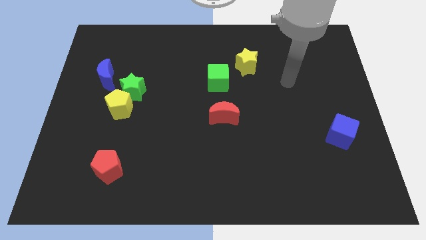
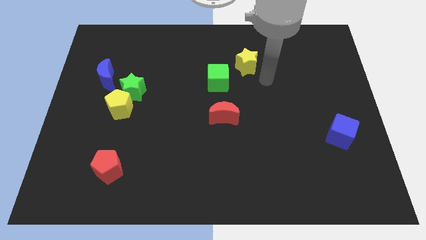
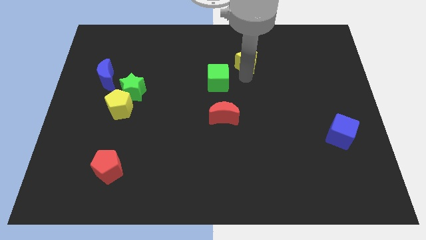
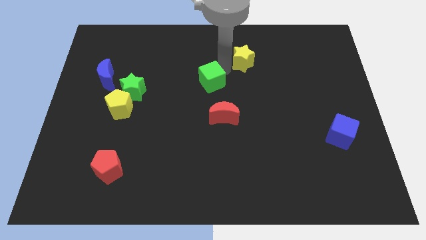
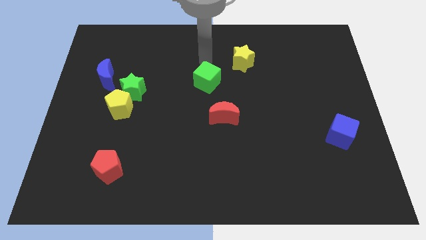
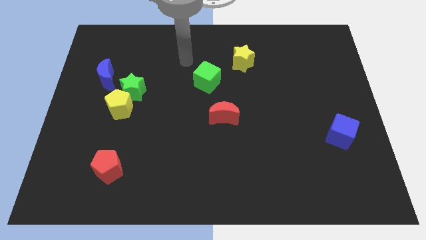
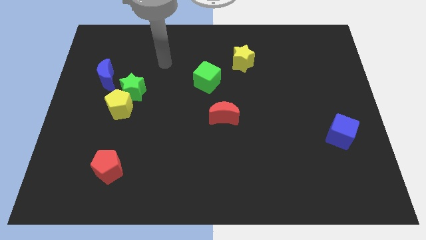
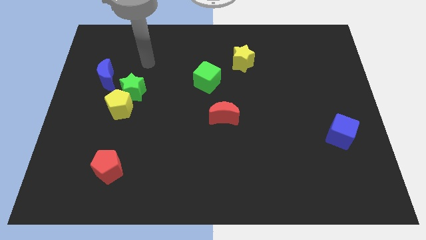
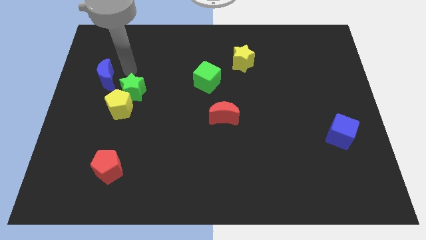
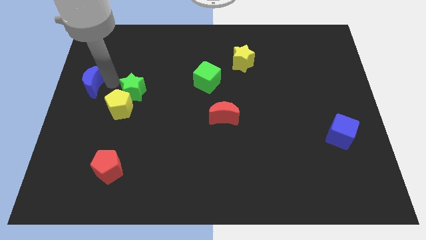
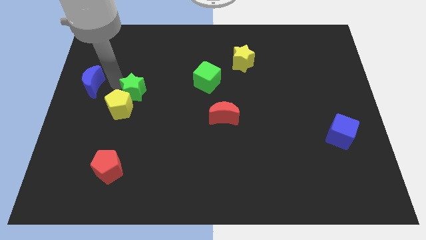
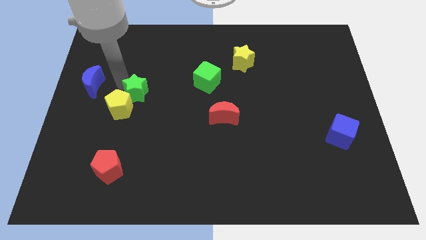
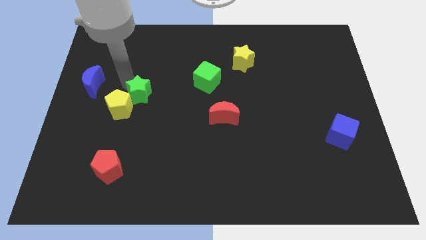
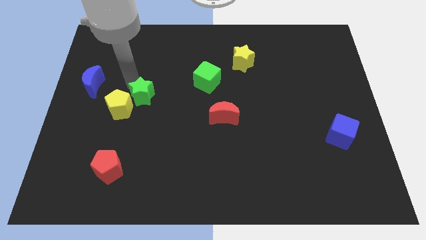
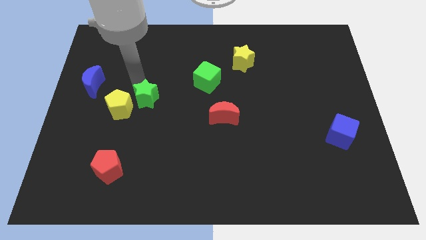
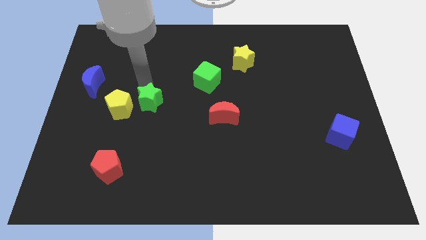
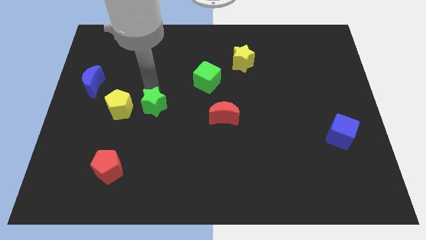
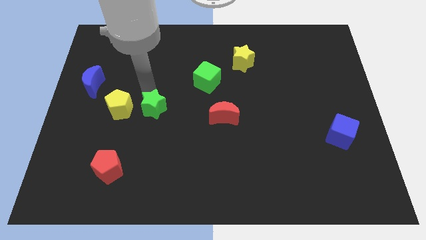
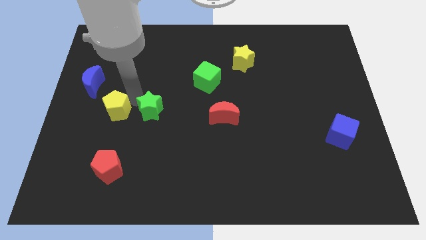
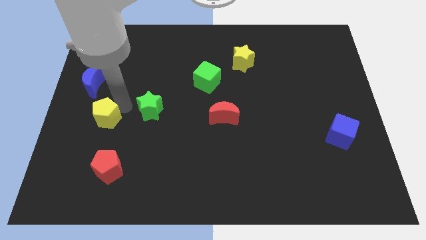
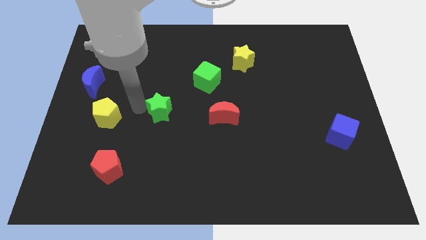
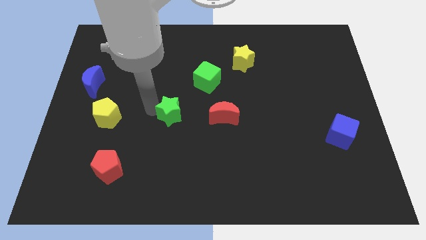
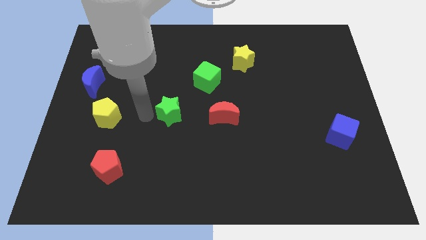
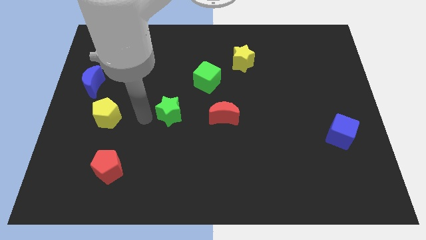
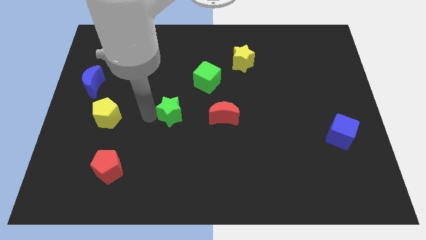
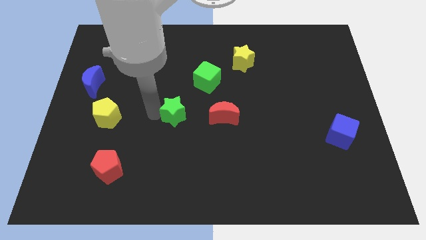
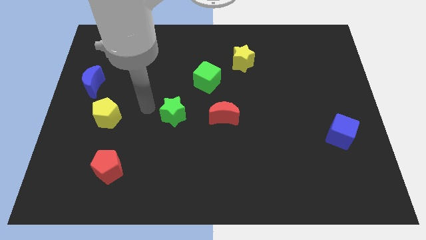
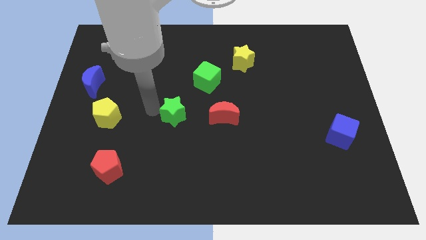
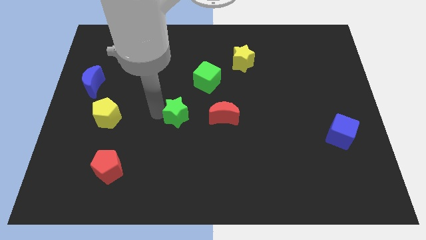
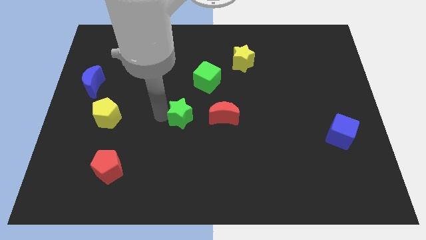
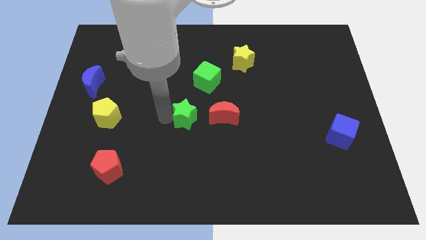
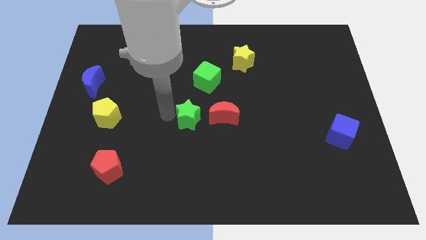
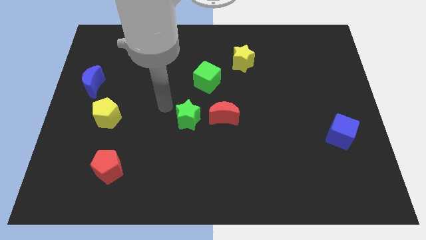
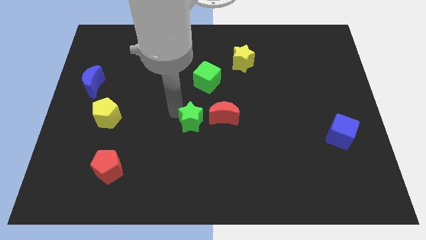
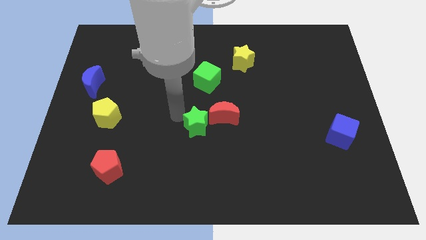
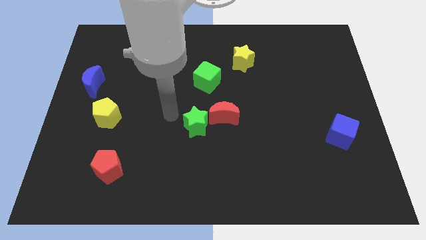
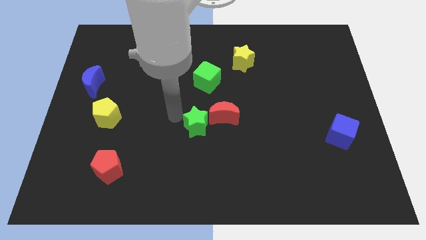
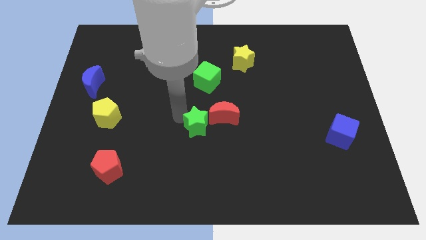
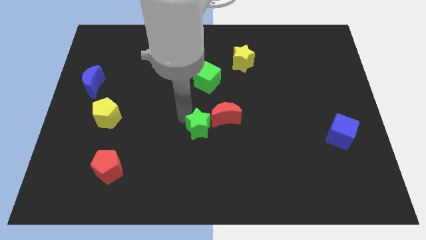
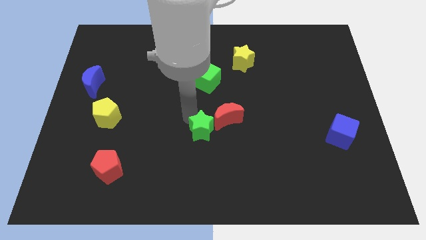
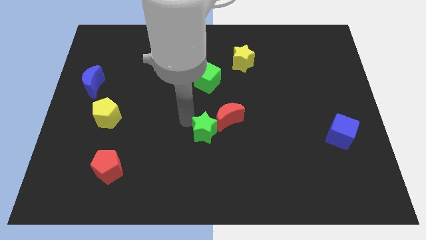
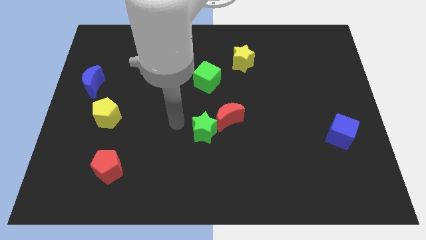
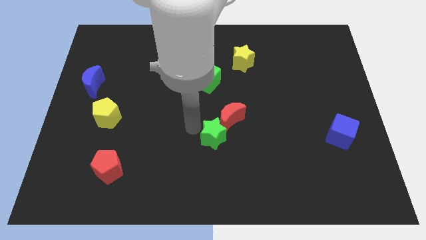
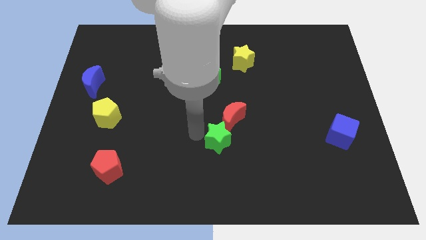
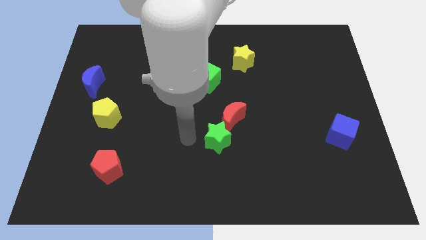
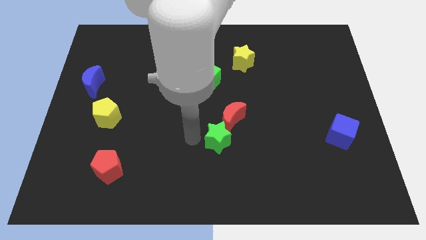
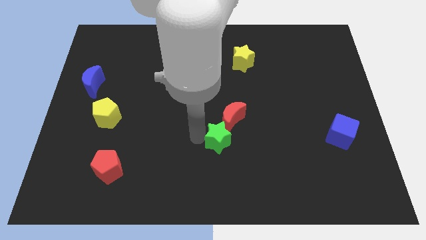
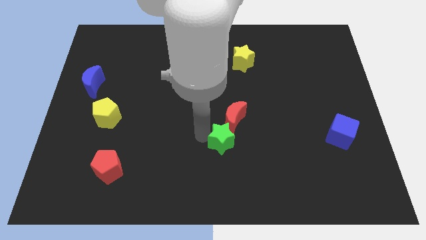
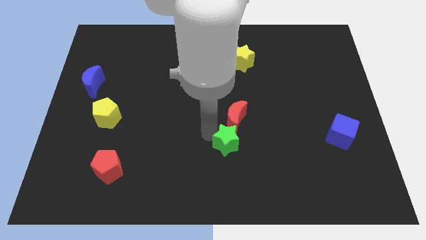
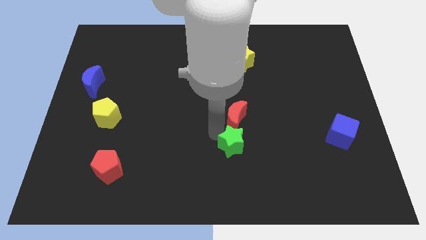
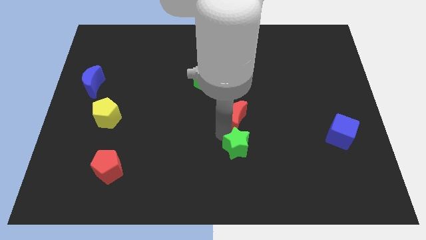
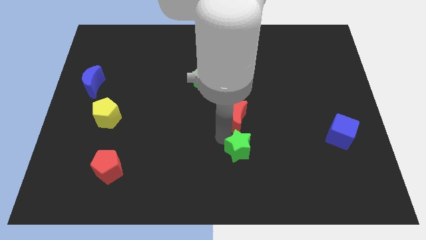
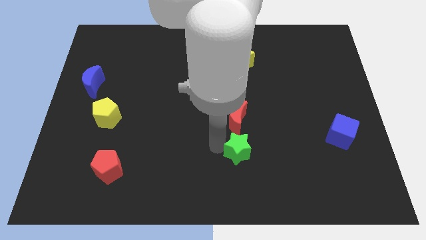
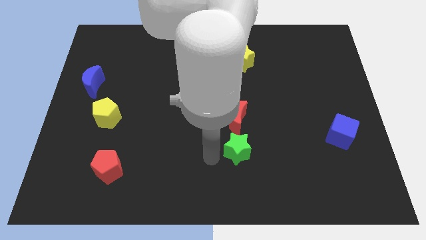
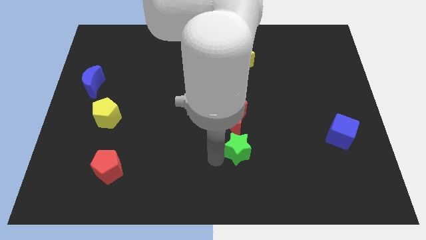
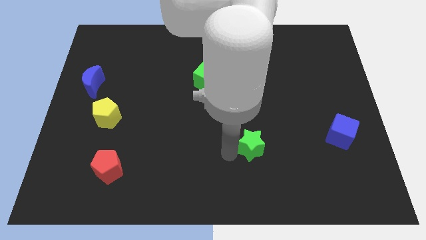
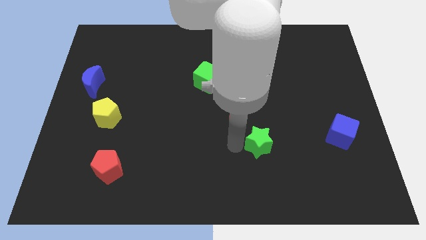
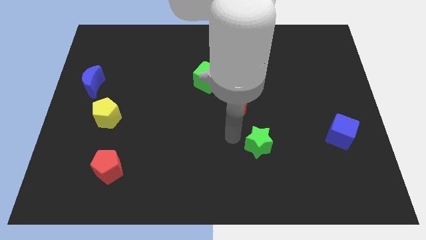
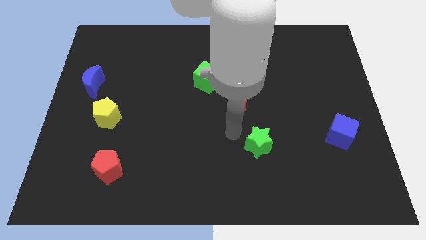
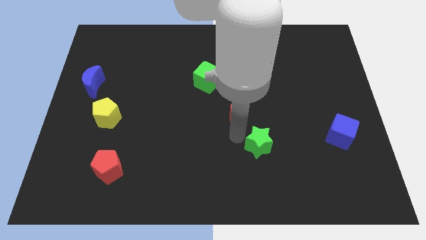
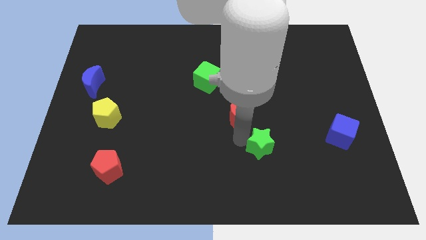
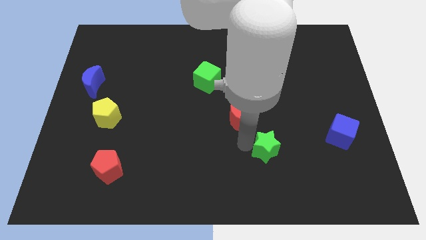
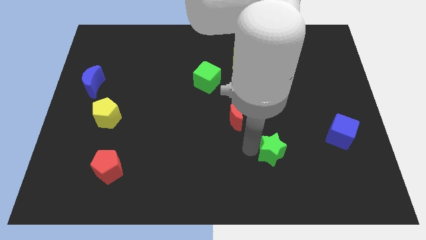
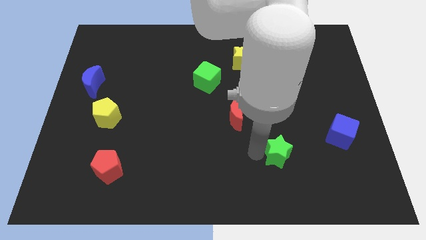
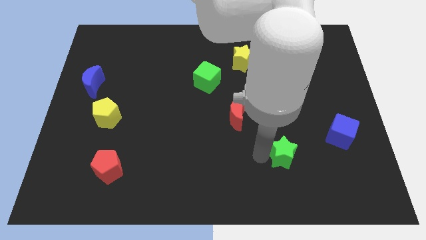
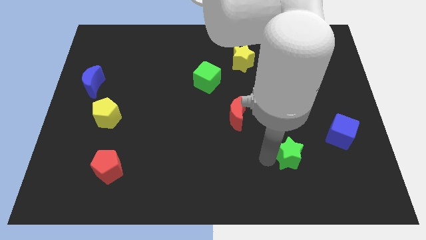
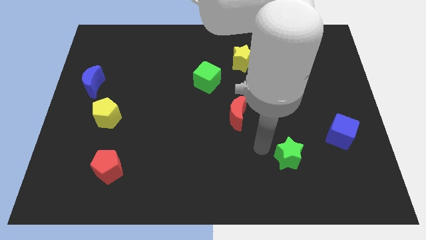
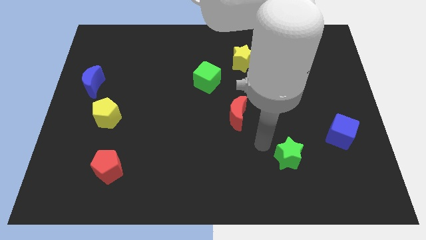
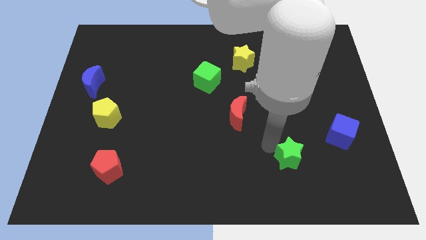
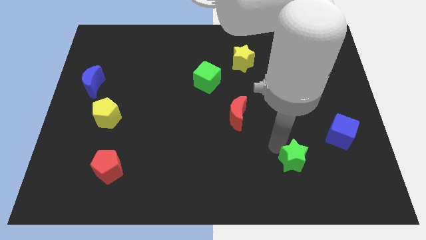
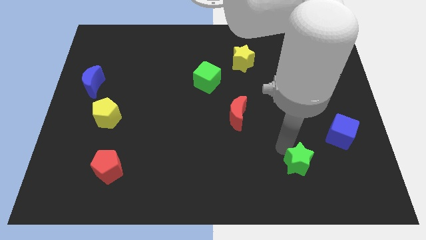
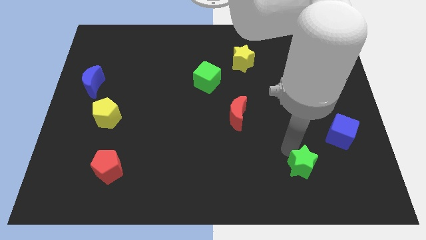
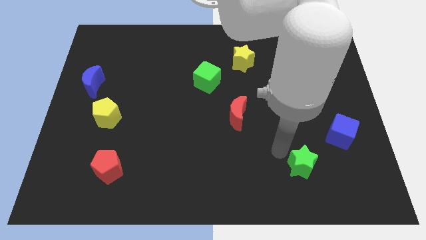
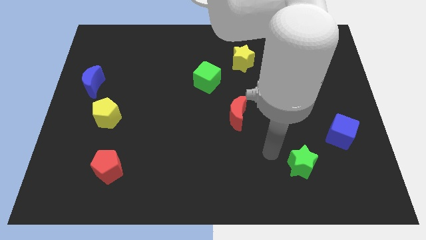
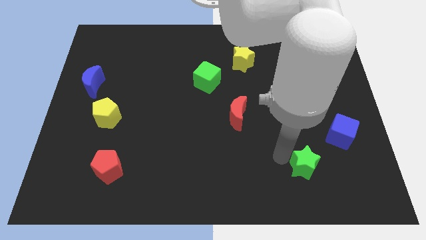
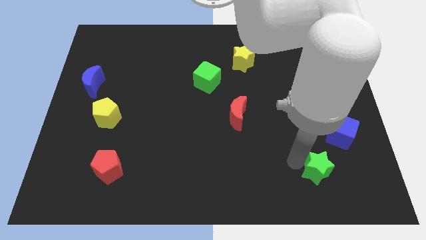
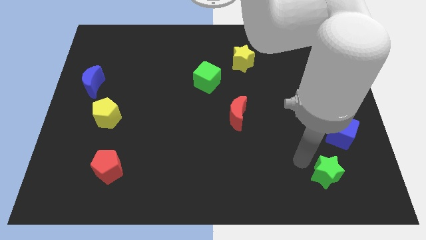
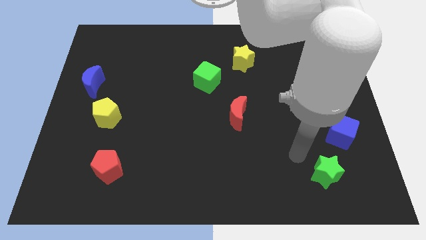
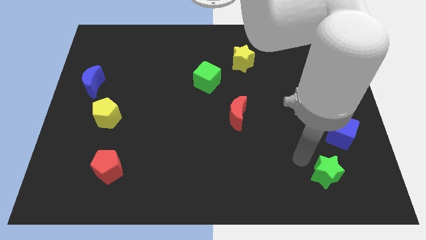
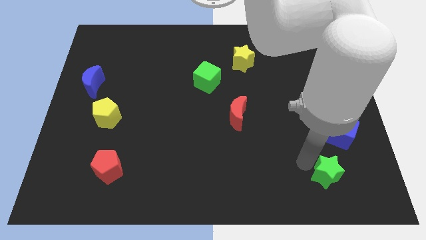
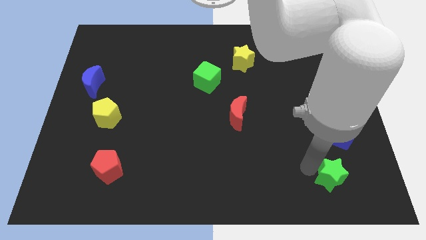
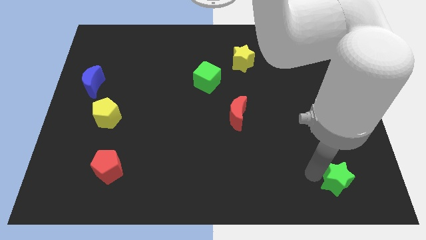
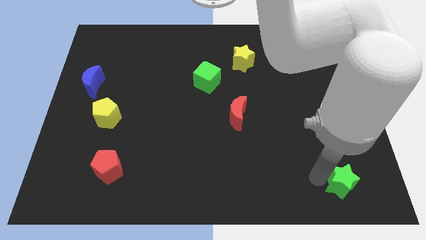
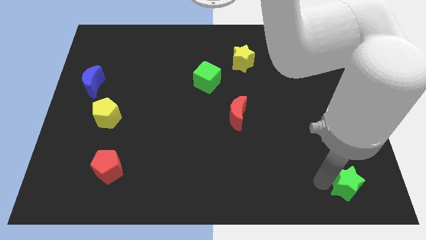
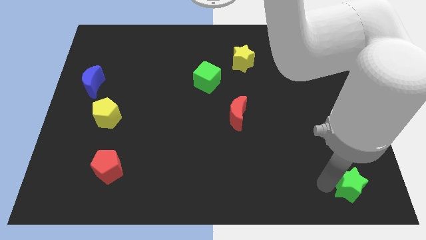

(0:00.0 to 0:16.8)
put the green star to the bottom right of the board
